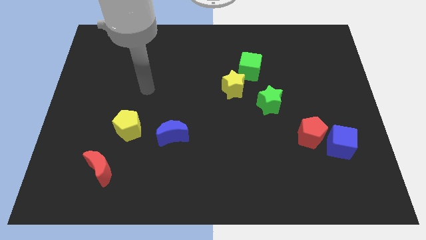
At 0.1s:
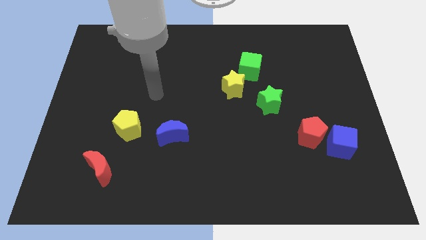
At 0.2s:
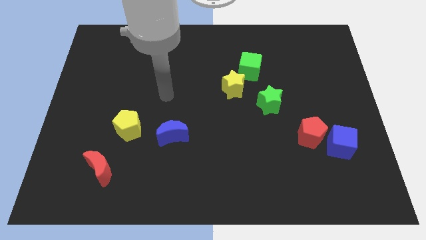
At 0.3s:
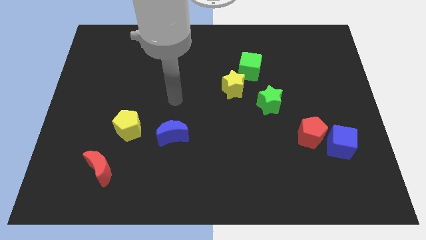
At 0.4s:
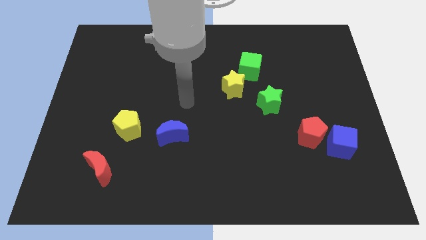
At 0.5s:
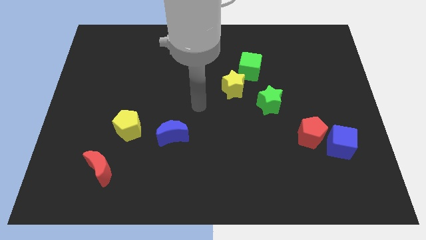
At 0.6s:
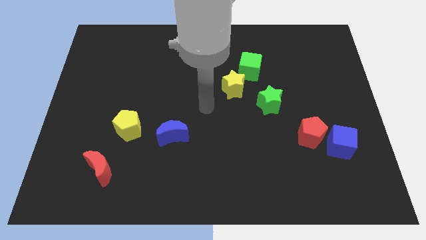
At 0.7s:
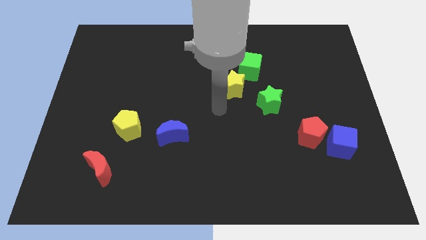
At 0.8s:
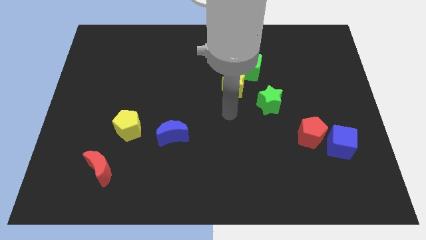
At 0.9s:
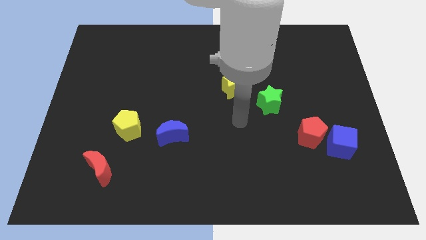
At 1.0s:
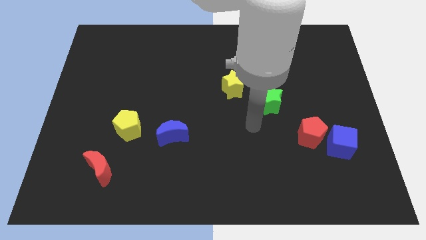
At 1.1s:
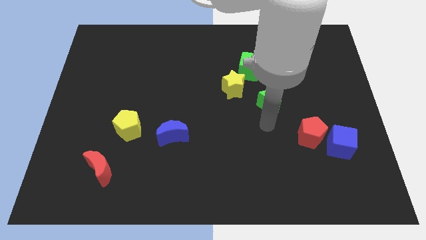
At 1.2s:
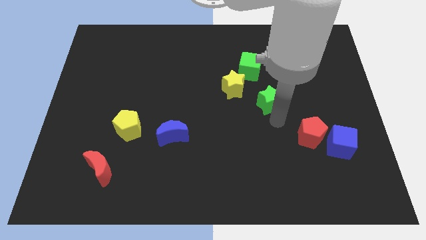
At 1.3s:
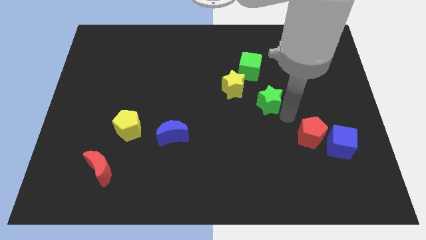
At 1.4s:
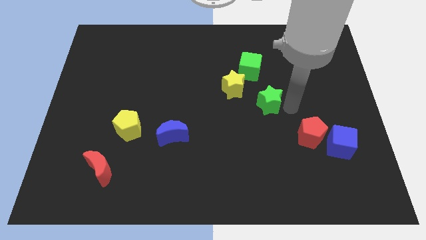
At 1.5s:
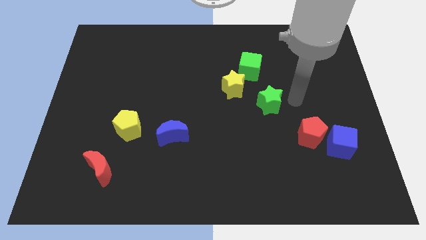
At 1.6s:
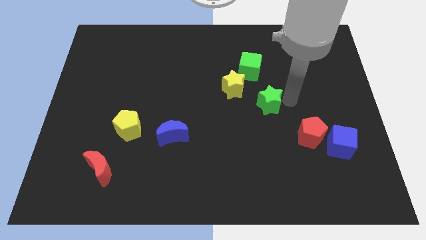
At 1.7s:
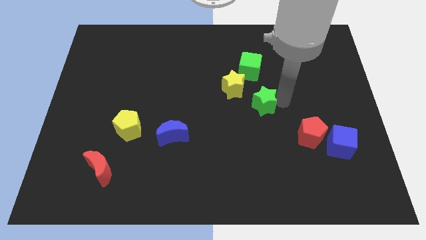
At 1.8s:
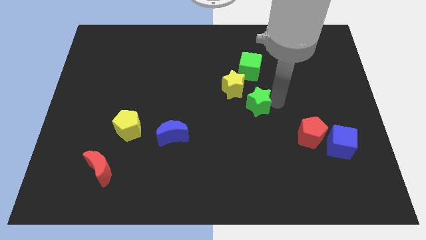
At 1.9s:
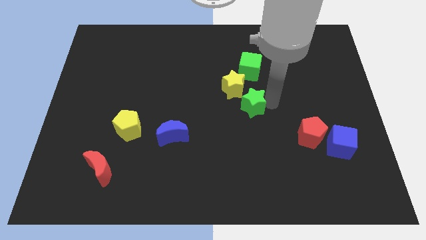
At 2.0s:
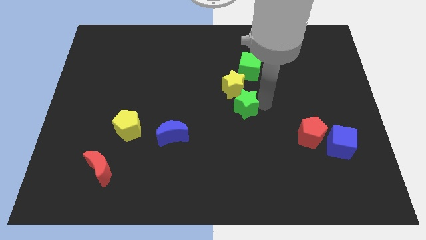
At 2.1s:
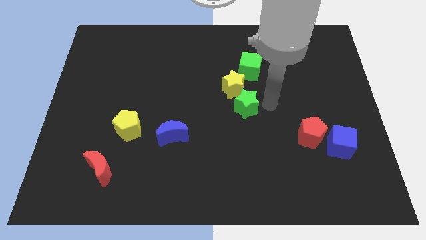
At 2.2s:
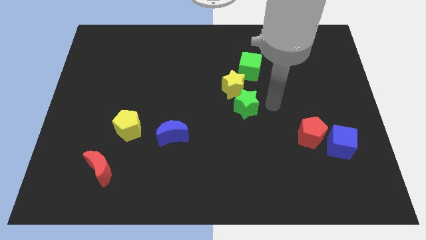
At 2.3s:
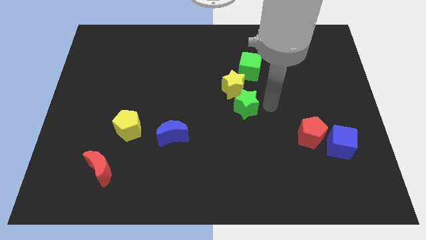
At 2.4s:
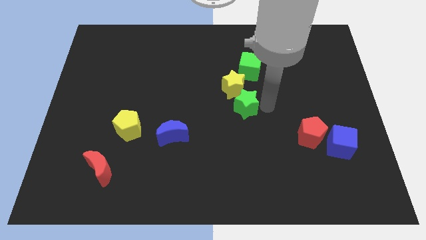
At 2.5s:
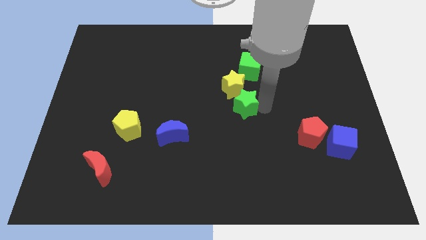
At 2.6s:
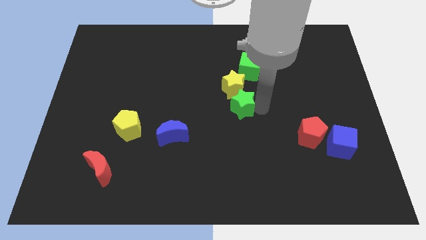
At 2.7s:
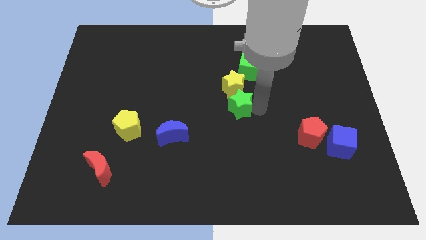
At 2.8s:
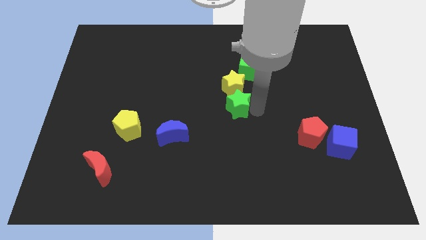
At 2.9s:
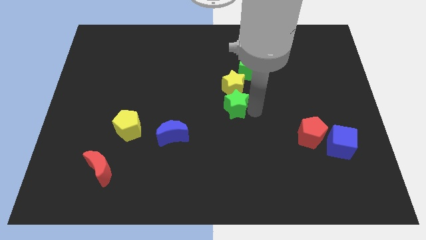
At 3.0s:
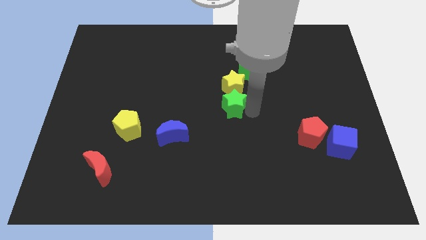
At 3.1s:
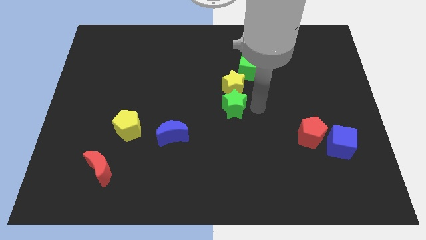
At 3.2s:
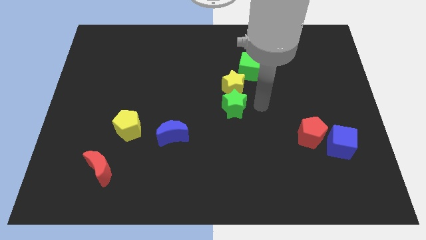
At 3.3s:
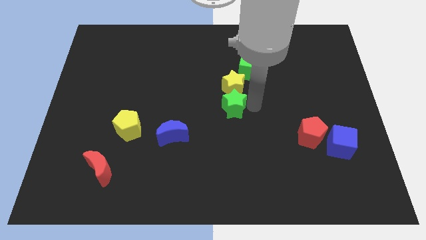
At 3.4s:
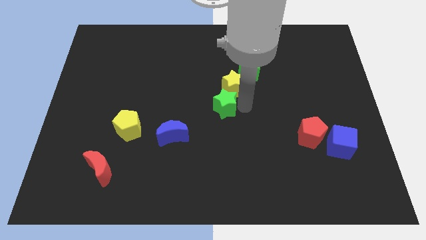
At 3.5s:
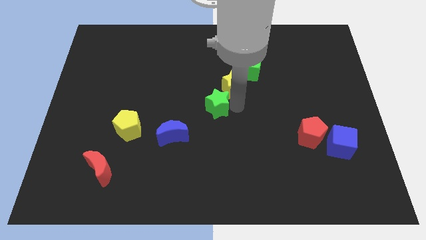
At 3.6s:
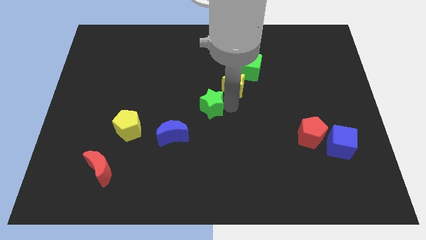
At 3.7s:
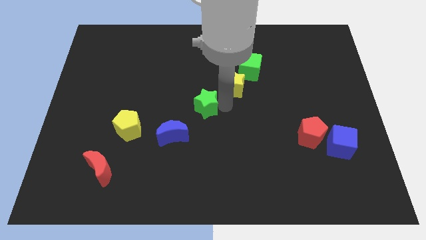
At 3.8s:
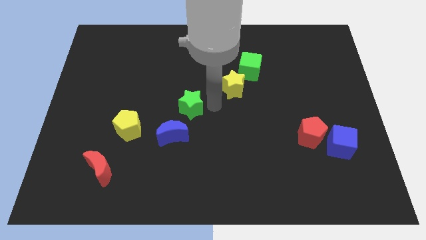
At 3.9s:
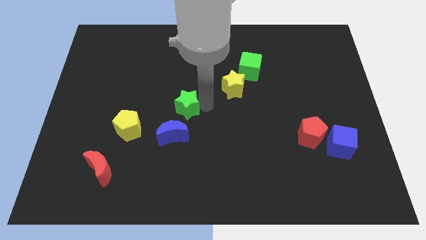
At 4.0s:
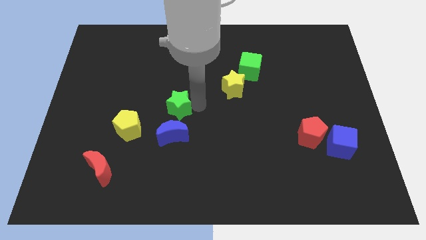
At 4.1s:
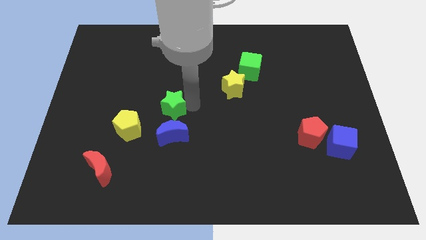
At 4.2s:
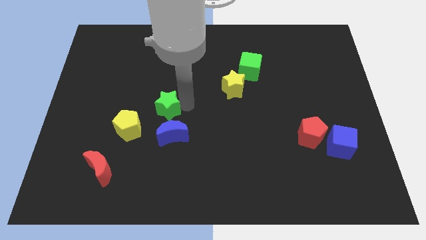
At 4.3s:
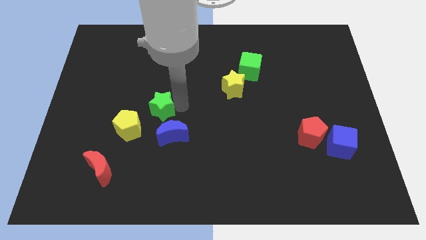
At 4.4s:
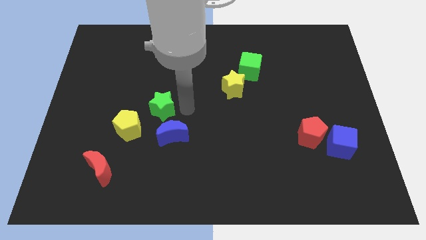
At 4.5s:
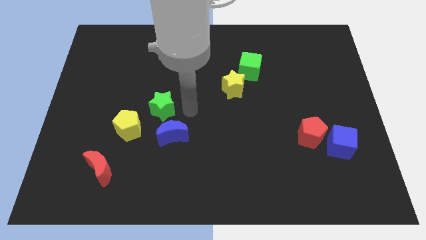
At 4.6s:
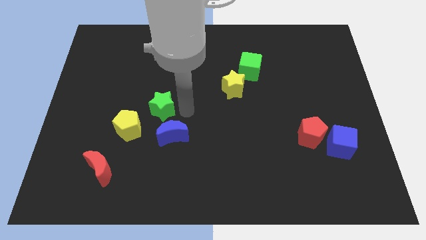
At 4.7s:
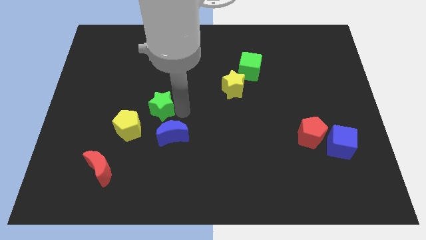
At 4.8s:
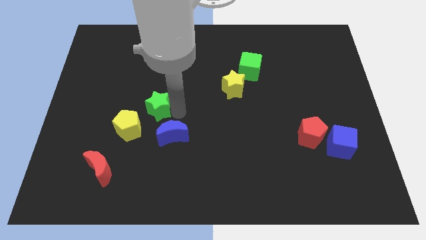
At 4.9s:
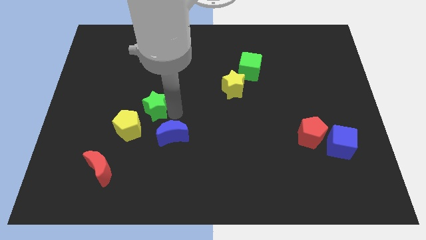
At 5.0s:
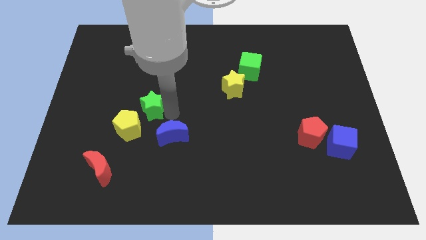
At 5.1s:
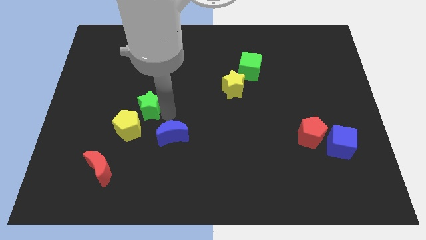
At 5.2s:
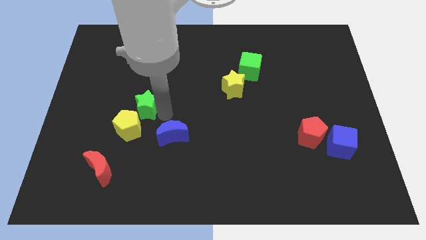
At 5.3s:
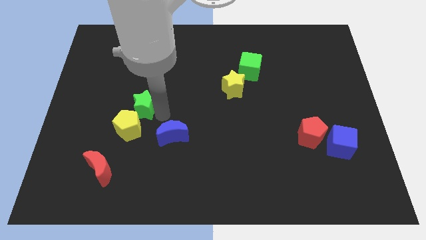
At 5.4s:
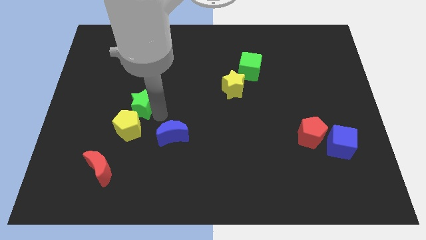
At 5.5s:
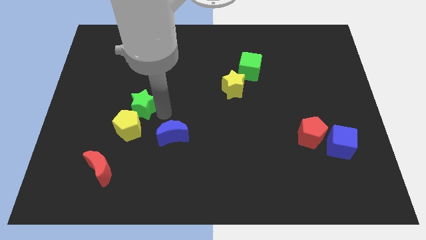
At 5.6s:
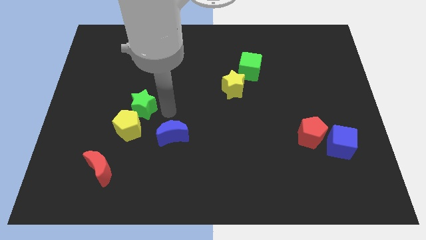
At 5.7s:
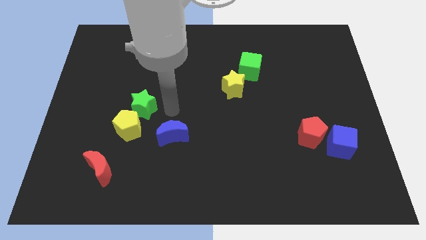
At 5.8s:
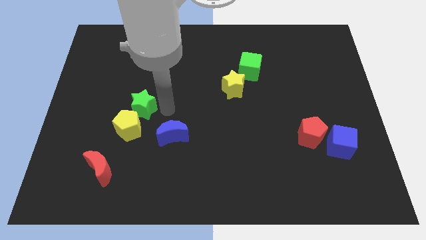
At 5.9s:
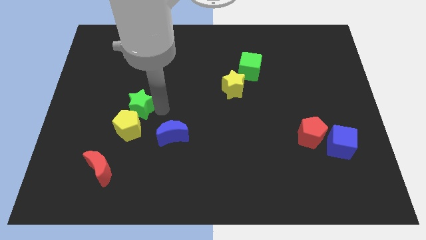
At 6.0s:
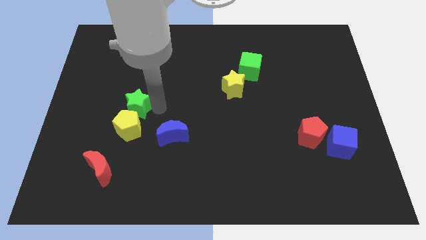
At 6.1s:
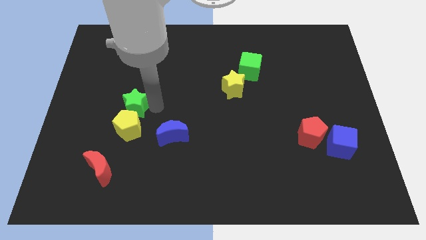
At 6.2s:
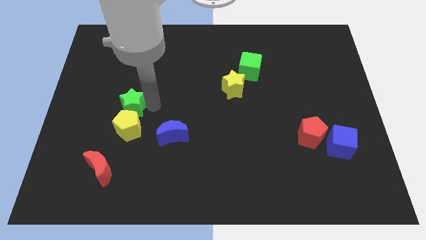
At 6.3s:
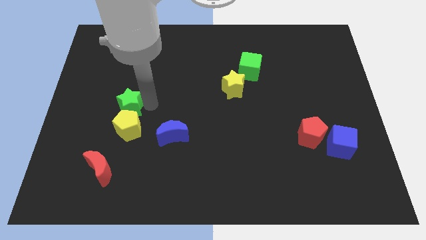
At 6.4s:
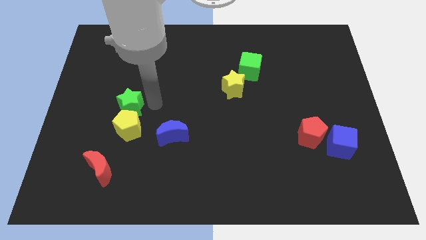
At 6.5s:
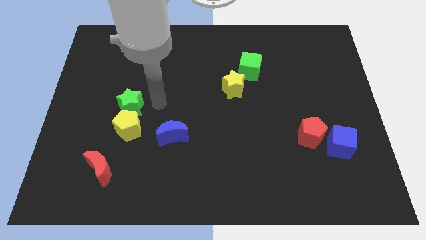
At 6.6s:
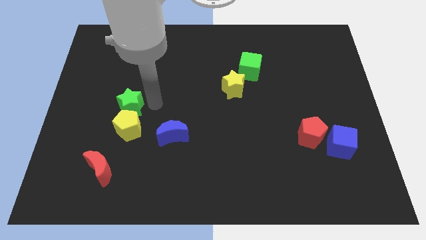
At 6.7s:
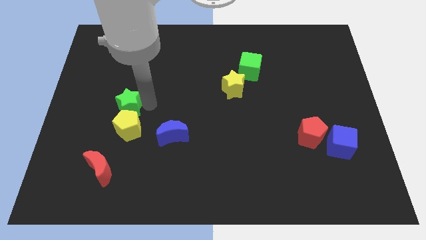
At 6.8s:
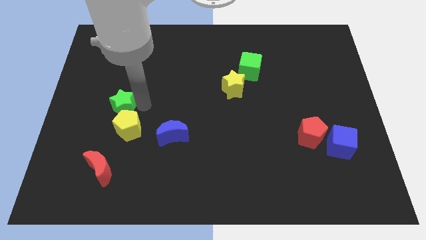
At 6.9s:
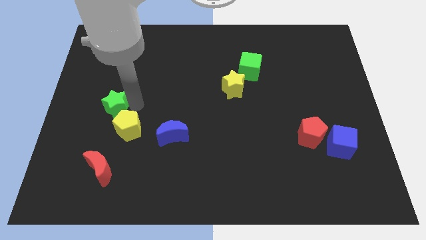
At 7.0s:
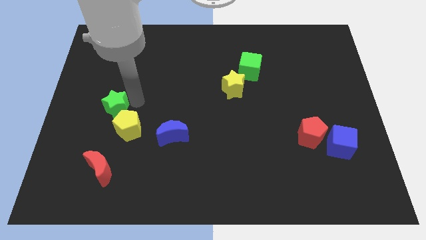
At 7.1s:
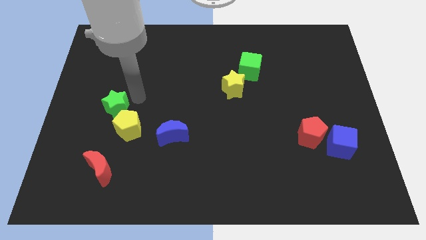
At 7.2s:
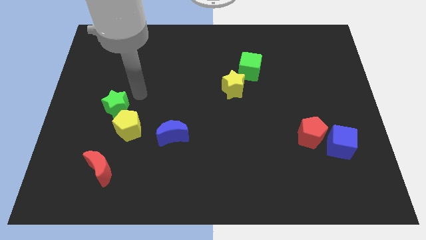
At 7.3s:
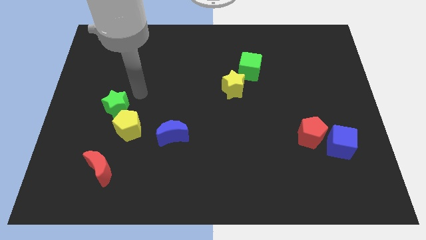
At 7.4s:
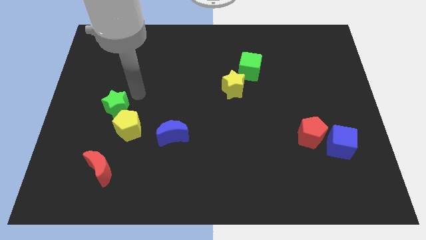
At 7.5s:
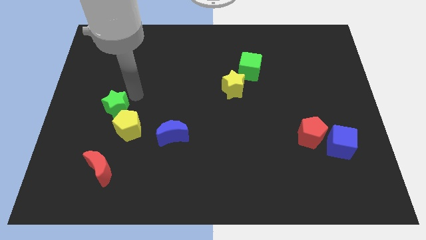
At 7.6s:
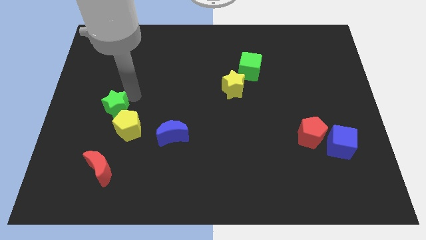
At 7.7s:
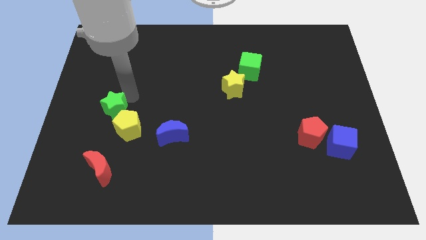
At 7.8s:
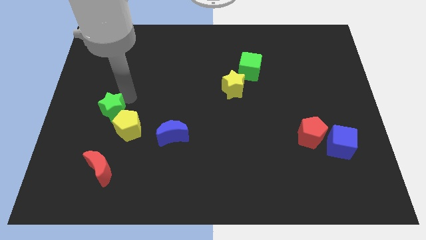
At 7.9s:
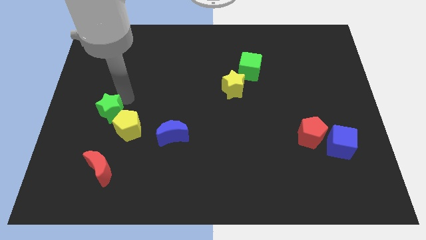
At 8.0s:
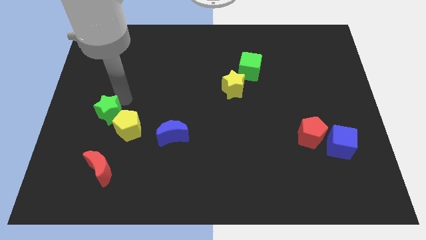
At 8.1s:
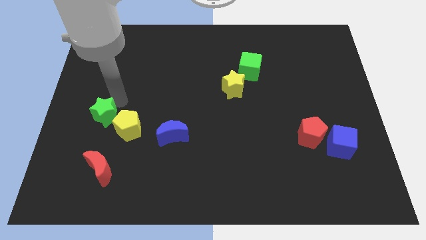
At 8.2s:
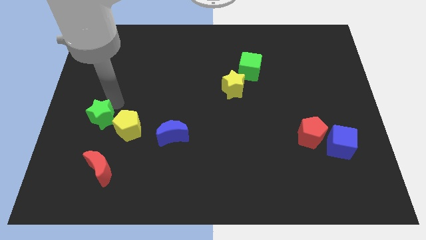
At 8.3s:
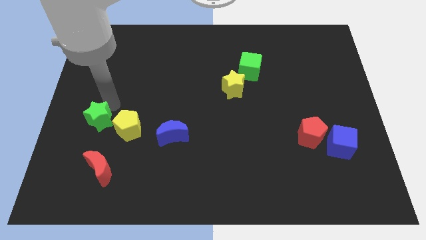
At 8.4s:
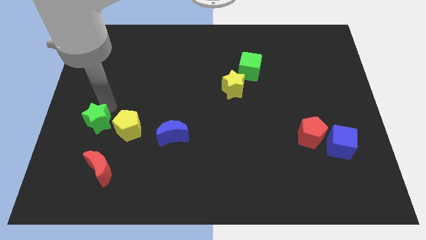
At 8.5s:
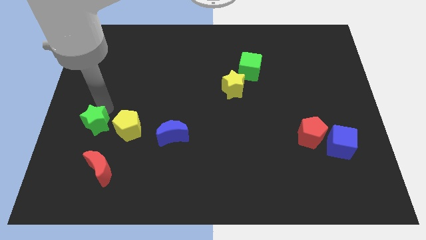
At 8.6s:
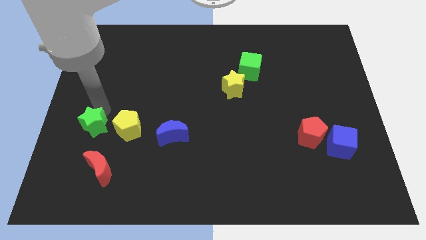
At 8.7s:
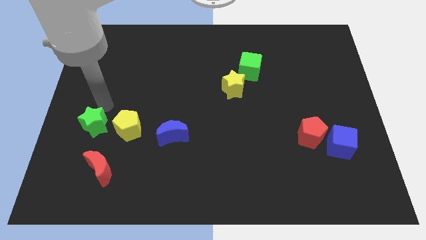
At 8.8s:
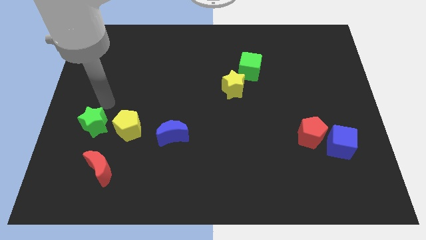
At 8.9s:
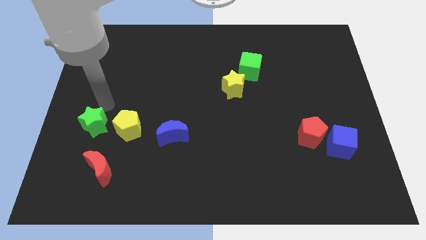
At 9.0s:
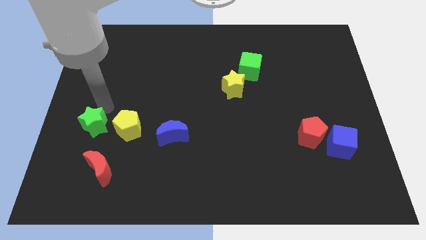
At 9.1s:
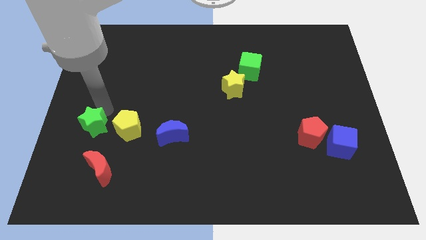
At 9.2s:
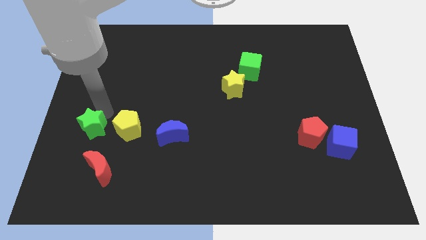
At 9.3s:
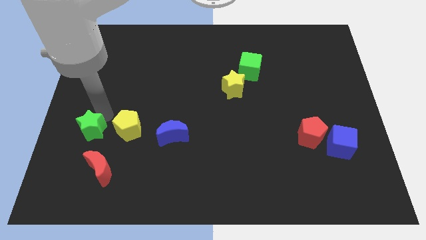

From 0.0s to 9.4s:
push the green star diagonally up and to the left of the red moon
